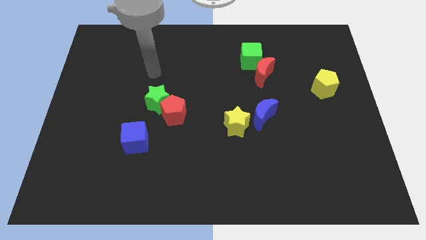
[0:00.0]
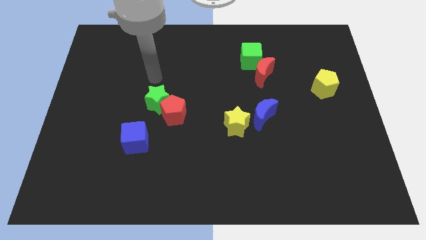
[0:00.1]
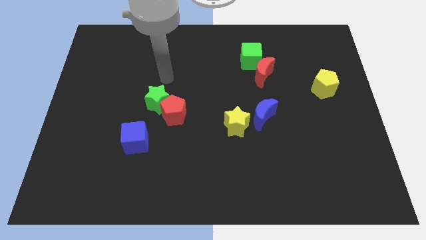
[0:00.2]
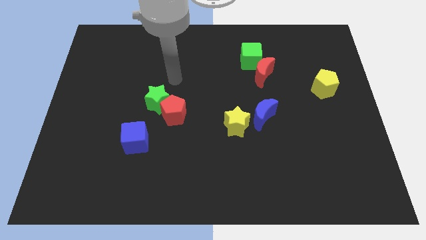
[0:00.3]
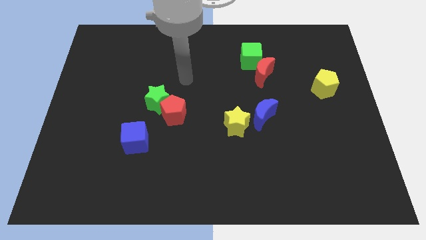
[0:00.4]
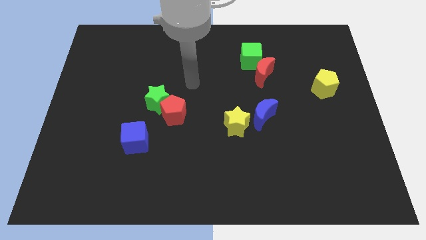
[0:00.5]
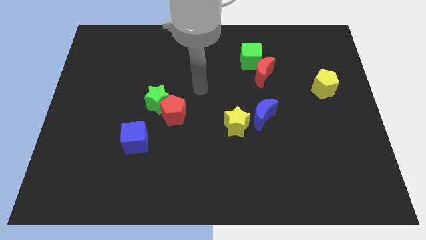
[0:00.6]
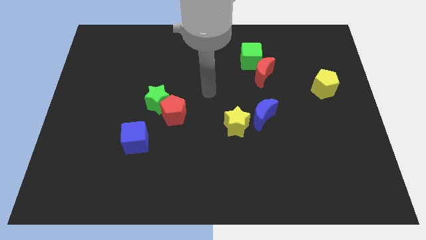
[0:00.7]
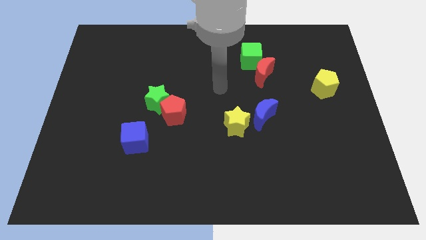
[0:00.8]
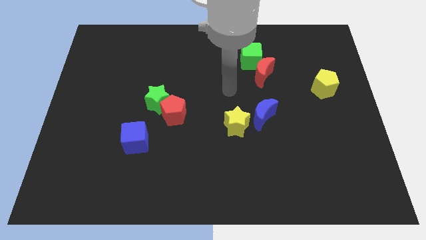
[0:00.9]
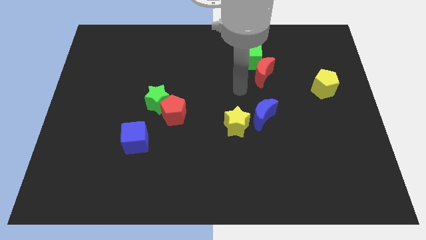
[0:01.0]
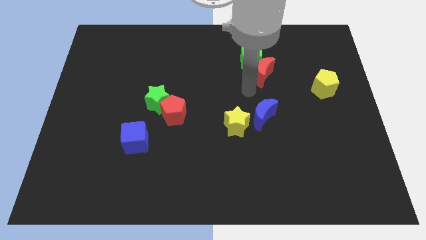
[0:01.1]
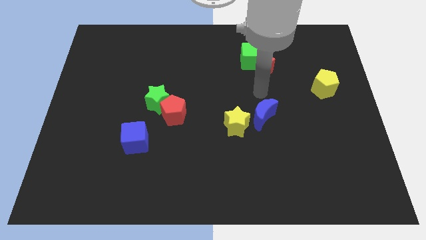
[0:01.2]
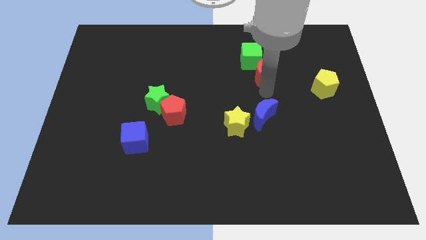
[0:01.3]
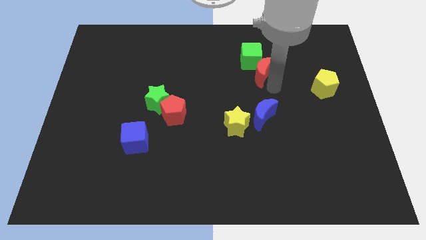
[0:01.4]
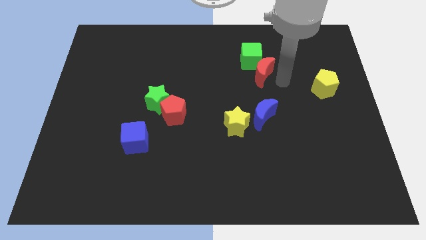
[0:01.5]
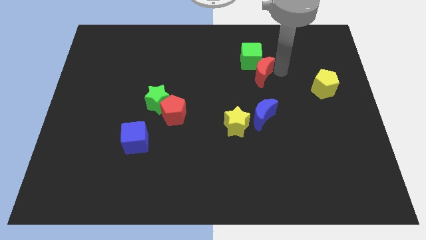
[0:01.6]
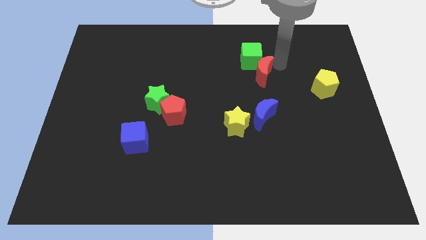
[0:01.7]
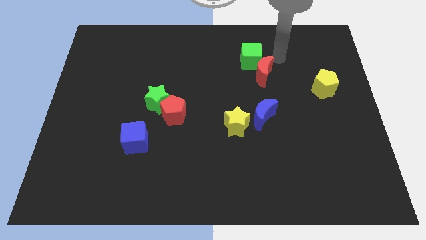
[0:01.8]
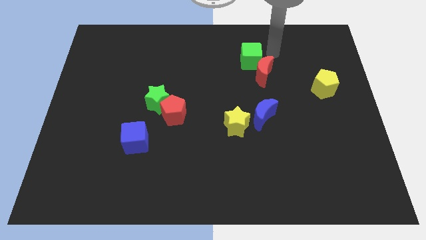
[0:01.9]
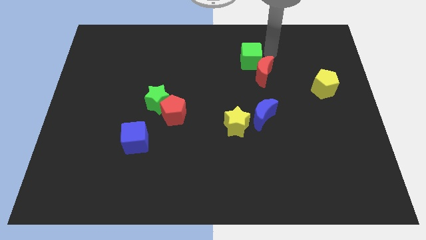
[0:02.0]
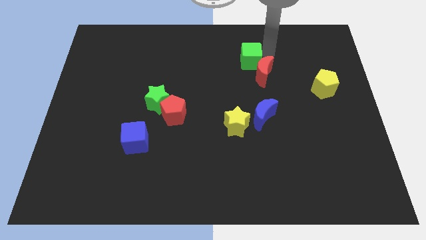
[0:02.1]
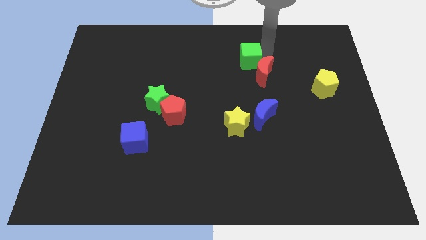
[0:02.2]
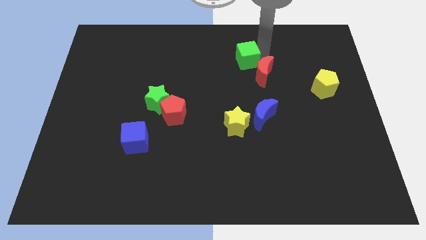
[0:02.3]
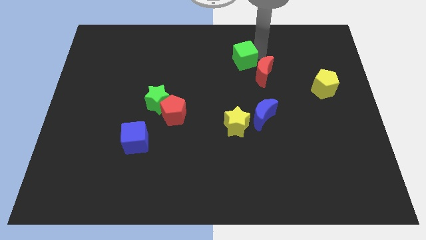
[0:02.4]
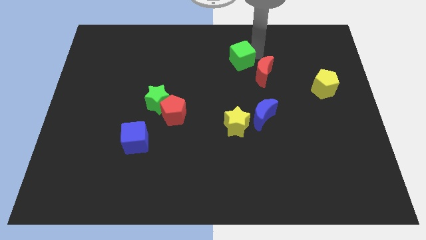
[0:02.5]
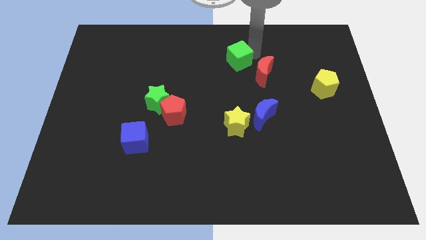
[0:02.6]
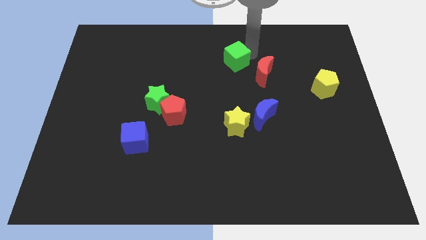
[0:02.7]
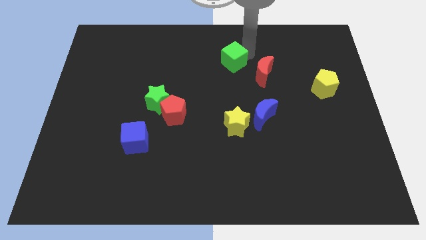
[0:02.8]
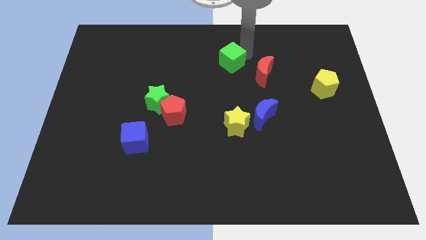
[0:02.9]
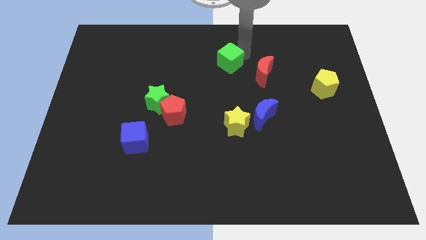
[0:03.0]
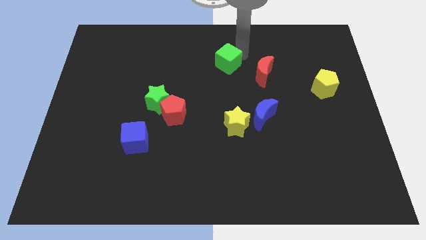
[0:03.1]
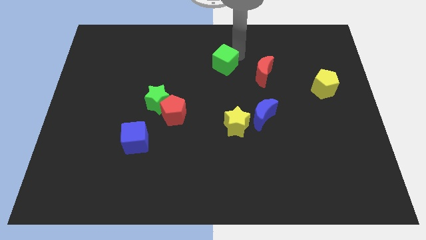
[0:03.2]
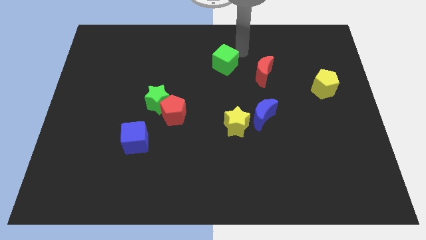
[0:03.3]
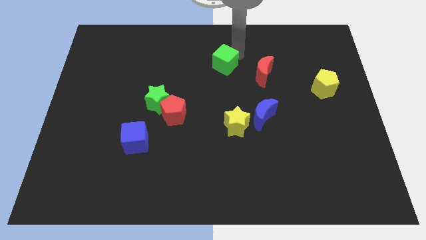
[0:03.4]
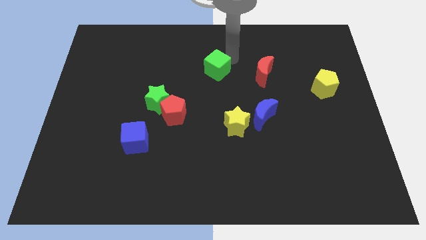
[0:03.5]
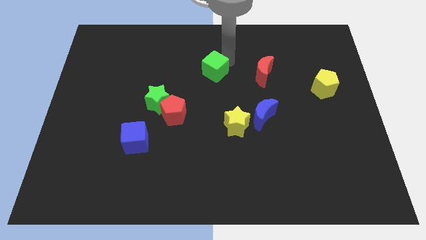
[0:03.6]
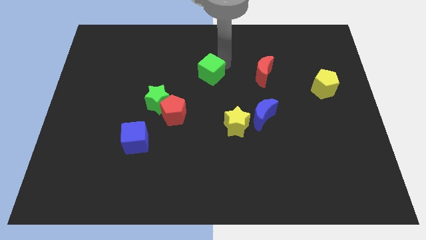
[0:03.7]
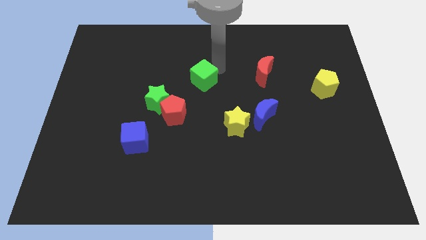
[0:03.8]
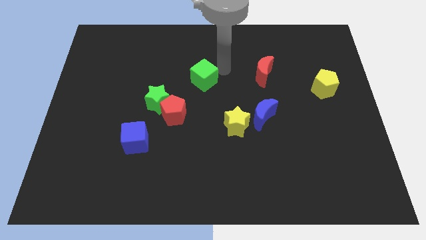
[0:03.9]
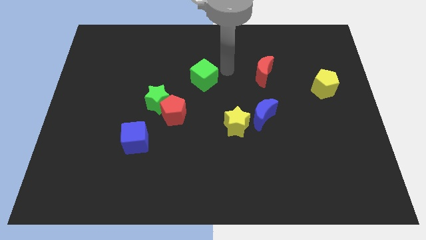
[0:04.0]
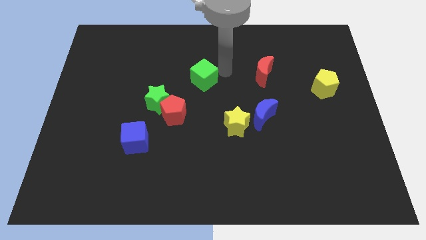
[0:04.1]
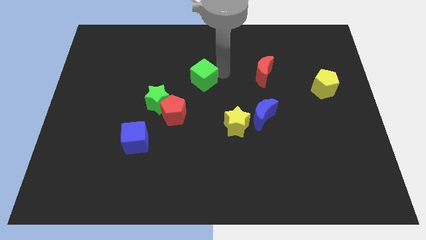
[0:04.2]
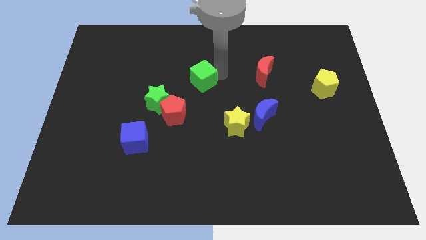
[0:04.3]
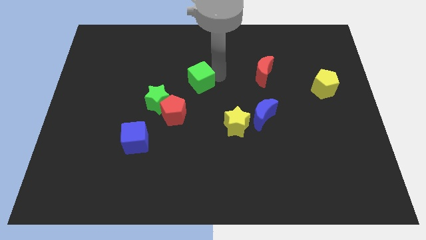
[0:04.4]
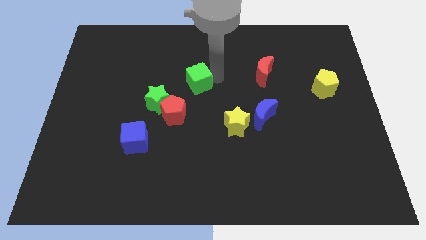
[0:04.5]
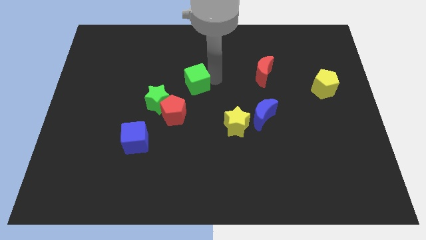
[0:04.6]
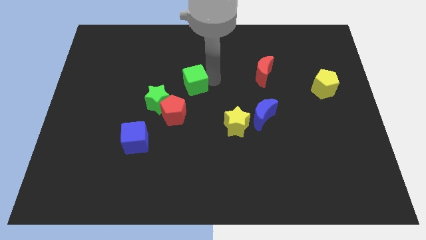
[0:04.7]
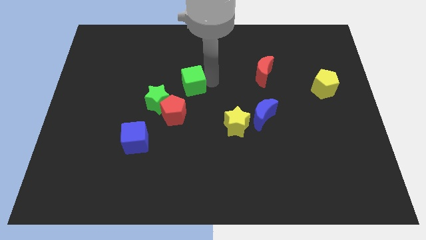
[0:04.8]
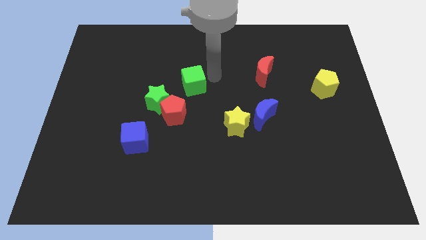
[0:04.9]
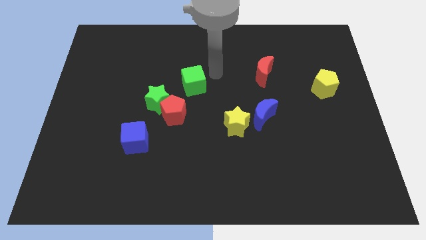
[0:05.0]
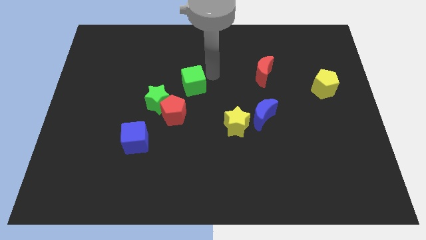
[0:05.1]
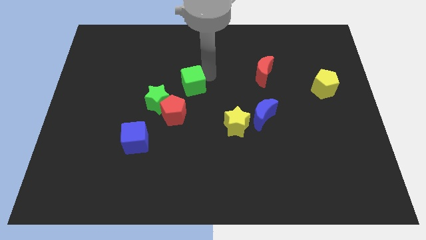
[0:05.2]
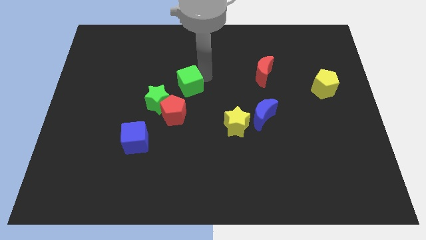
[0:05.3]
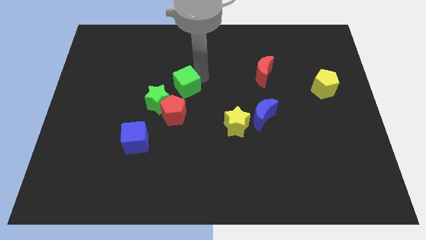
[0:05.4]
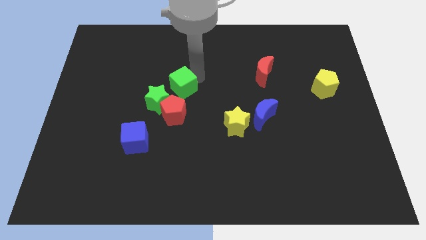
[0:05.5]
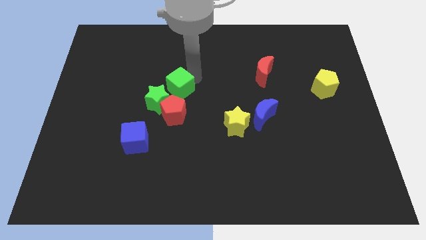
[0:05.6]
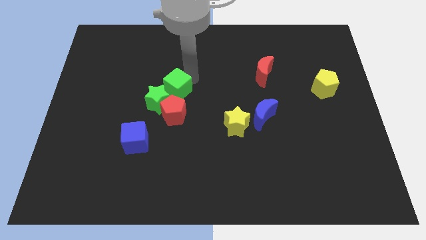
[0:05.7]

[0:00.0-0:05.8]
slide the green cube close to the green star

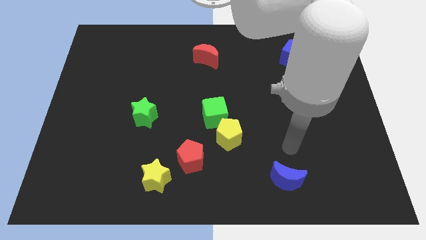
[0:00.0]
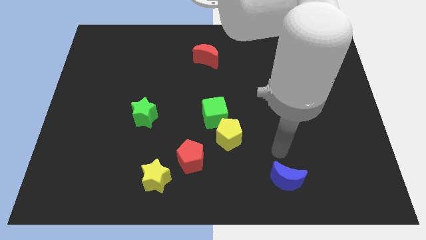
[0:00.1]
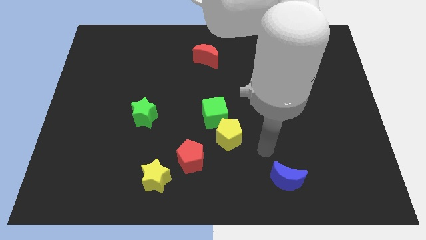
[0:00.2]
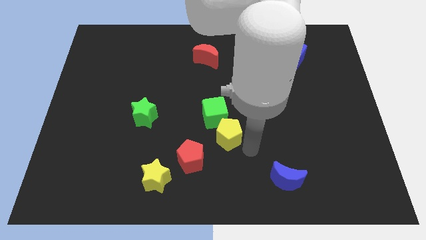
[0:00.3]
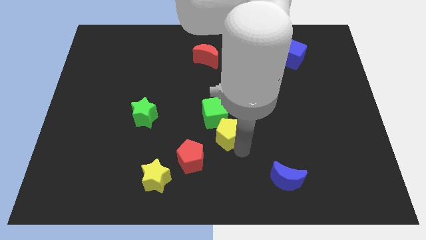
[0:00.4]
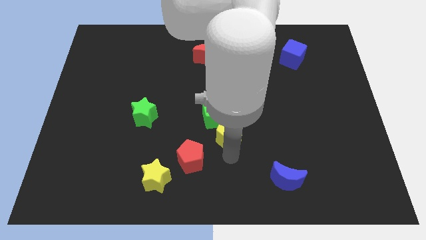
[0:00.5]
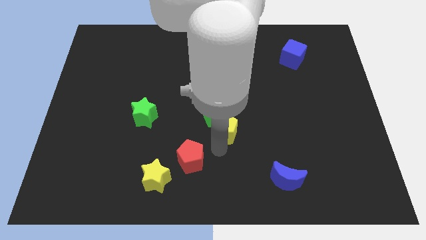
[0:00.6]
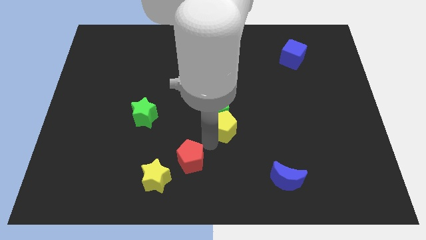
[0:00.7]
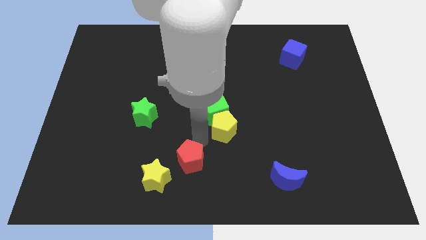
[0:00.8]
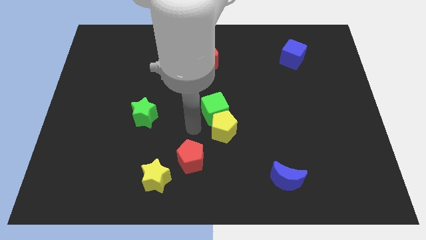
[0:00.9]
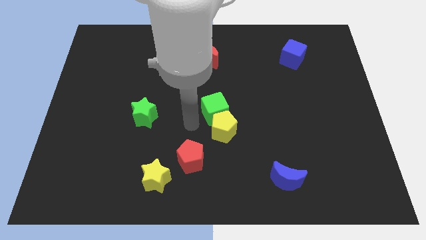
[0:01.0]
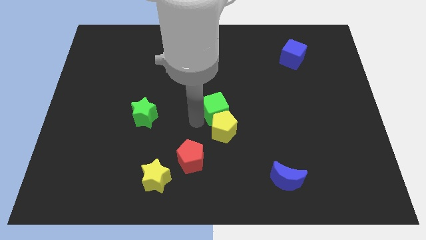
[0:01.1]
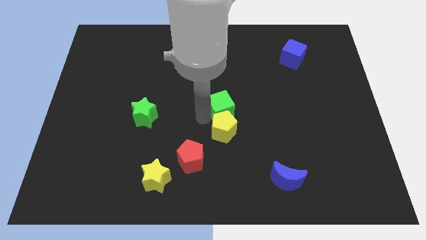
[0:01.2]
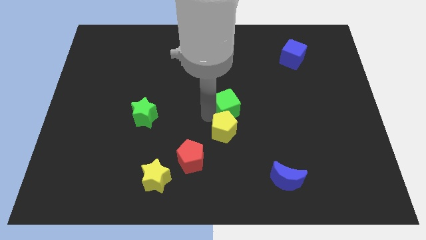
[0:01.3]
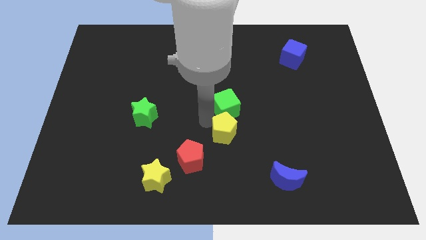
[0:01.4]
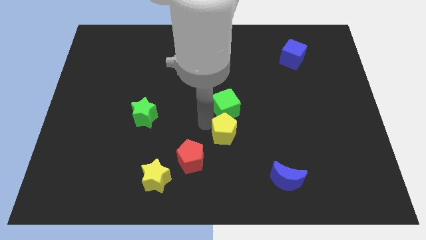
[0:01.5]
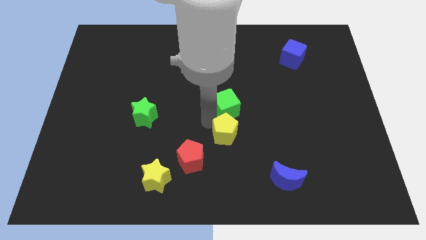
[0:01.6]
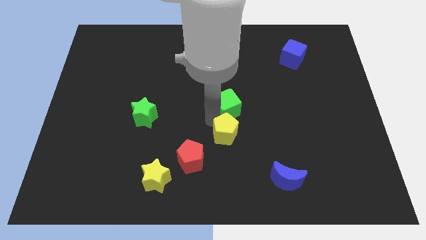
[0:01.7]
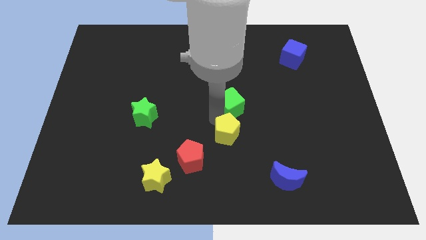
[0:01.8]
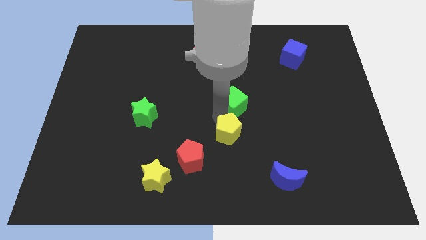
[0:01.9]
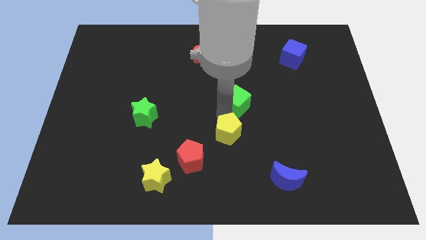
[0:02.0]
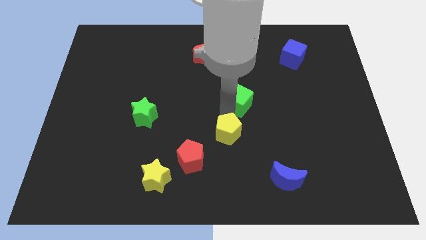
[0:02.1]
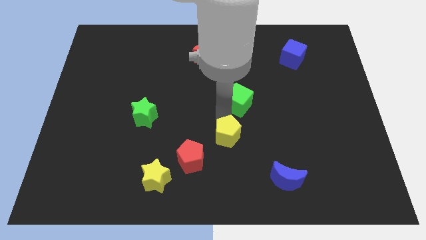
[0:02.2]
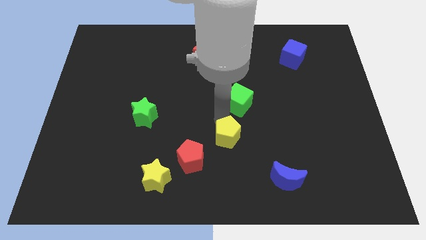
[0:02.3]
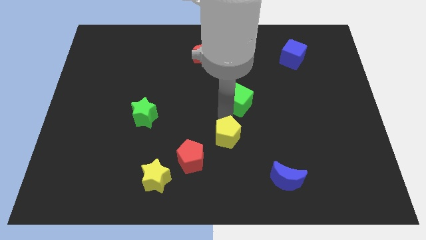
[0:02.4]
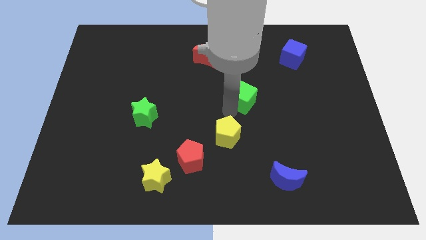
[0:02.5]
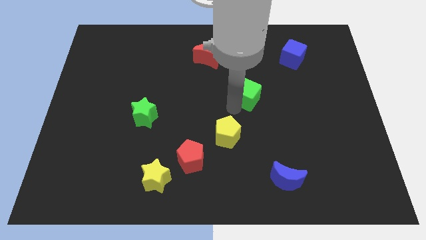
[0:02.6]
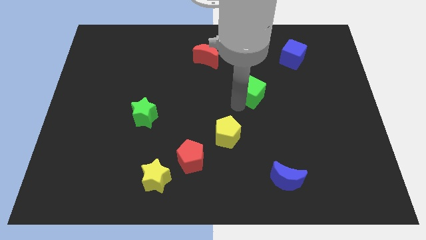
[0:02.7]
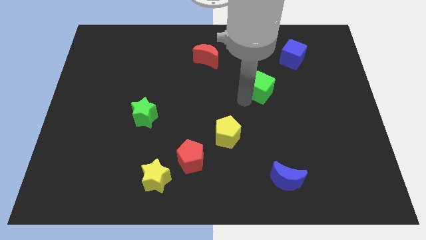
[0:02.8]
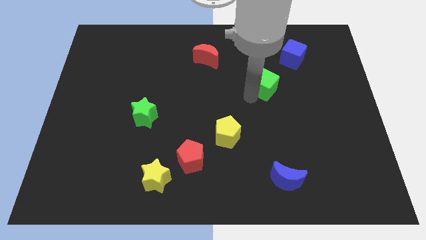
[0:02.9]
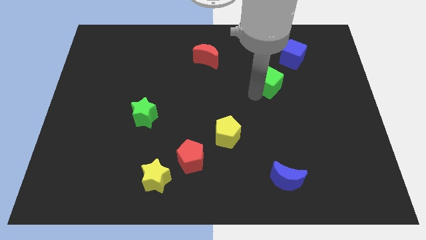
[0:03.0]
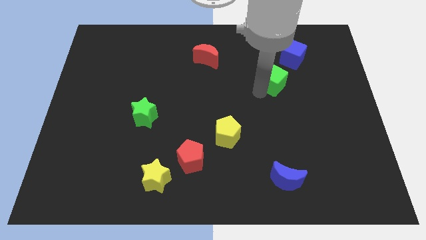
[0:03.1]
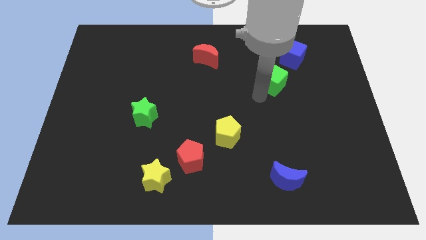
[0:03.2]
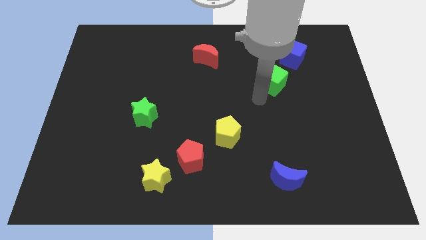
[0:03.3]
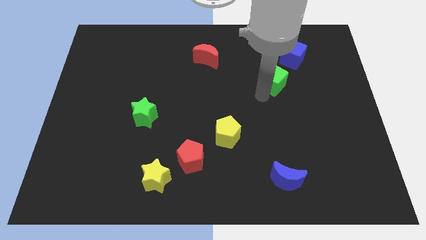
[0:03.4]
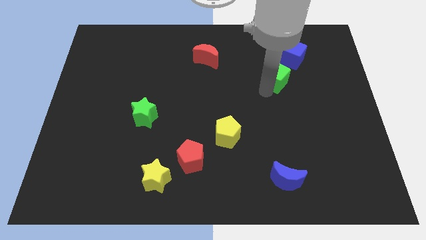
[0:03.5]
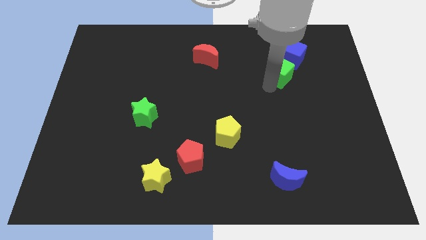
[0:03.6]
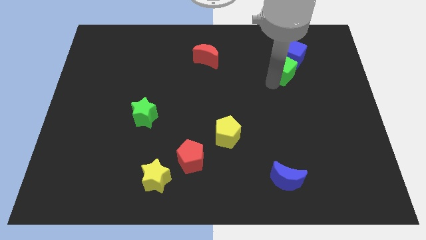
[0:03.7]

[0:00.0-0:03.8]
slide the green cube towards the blue cube
